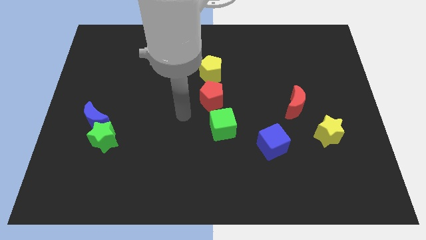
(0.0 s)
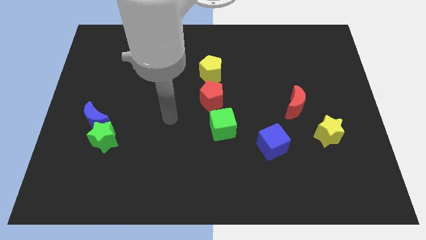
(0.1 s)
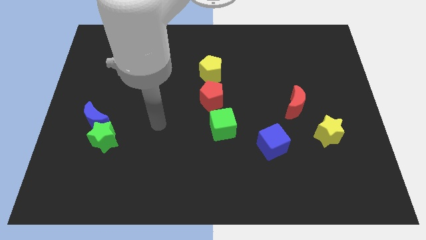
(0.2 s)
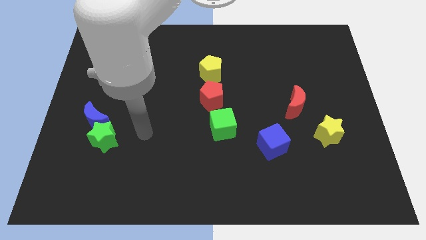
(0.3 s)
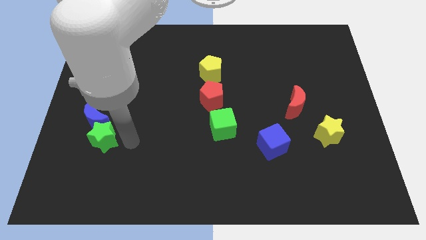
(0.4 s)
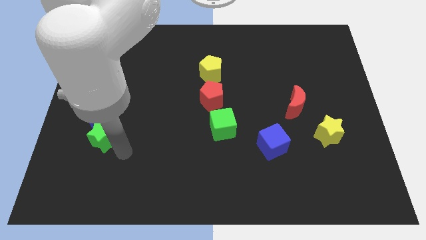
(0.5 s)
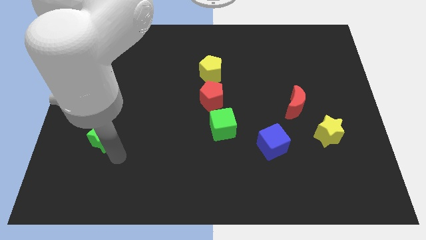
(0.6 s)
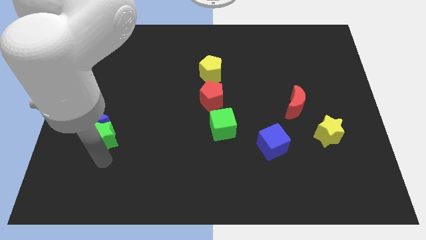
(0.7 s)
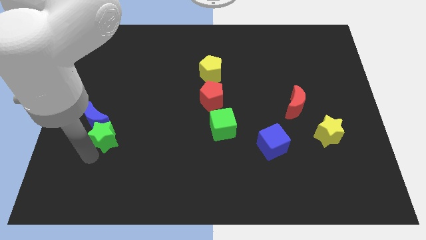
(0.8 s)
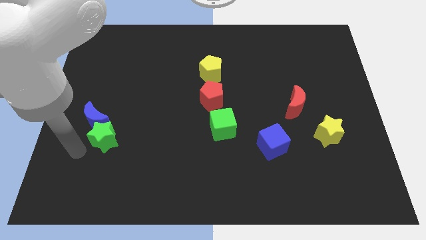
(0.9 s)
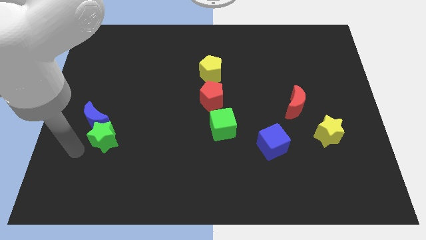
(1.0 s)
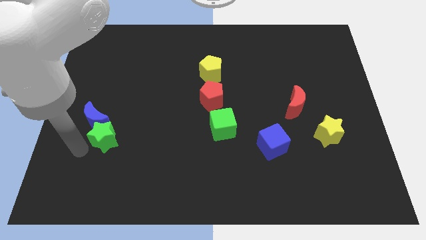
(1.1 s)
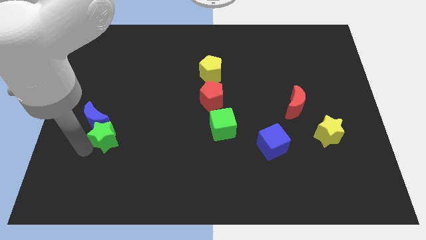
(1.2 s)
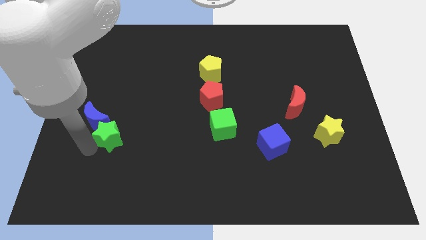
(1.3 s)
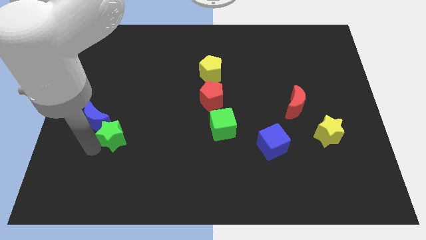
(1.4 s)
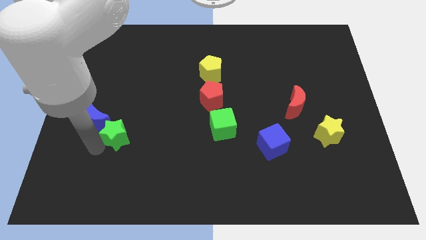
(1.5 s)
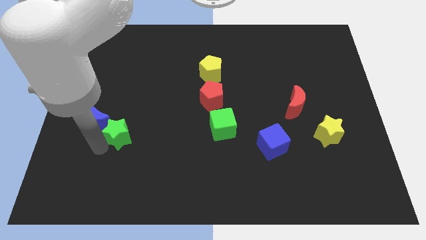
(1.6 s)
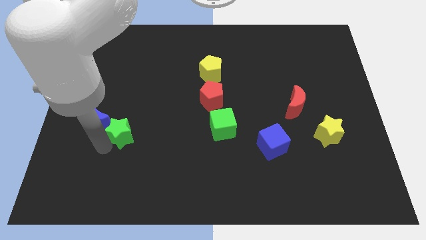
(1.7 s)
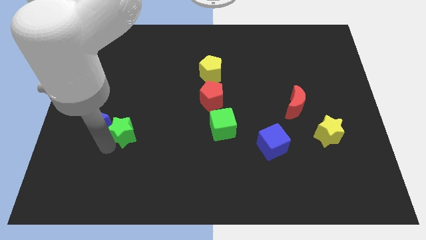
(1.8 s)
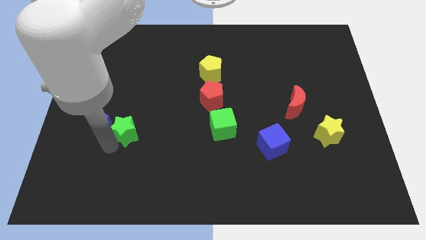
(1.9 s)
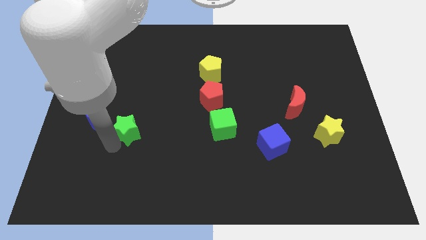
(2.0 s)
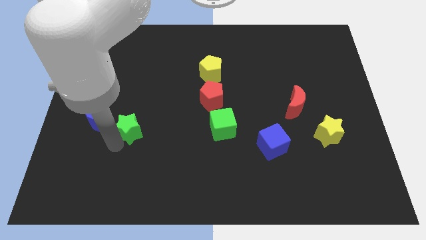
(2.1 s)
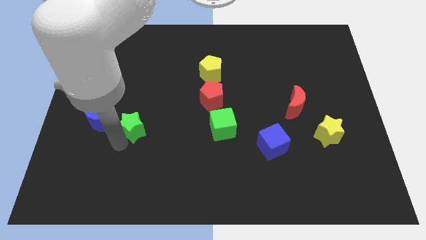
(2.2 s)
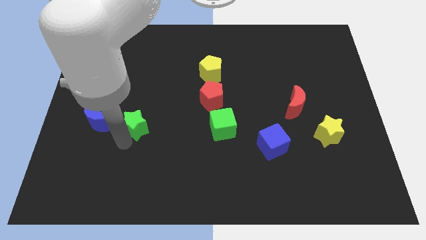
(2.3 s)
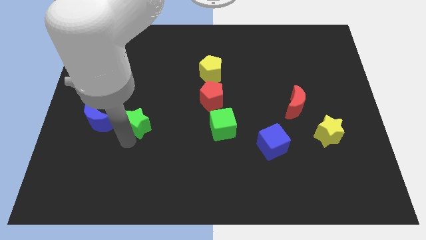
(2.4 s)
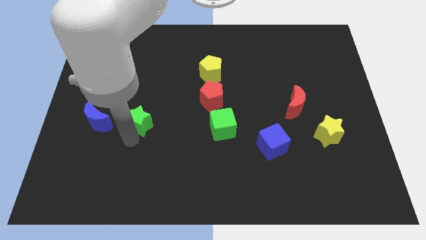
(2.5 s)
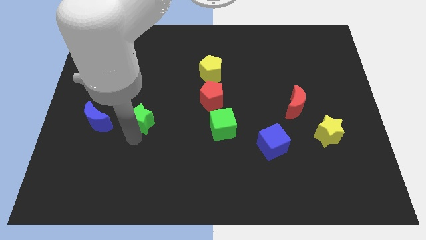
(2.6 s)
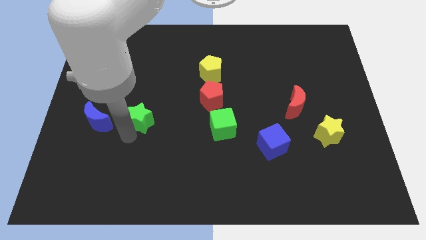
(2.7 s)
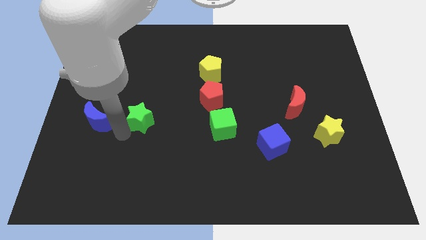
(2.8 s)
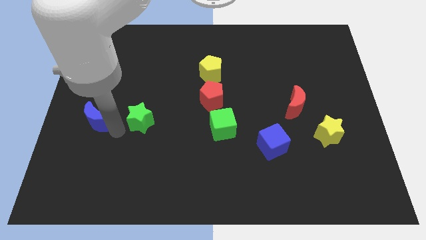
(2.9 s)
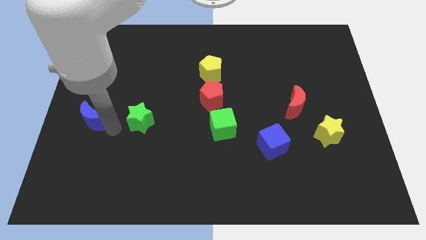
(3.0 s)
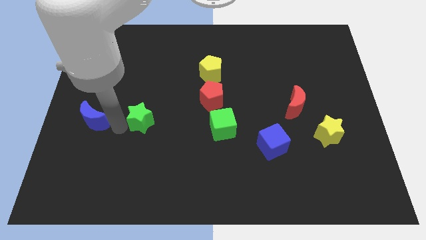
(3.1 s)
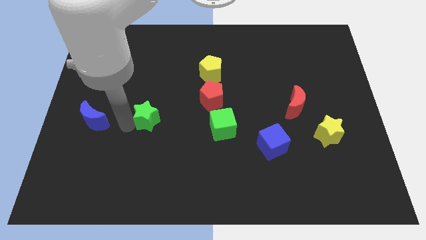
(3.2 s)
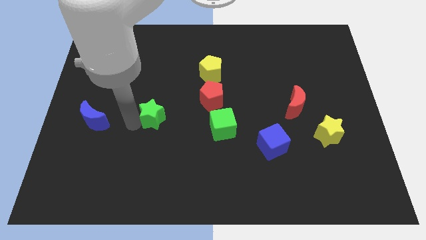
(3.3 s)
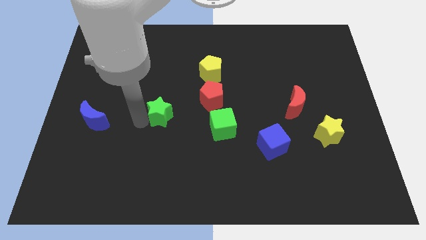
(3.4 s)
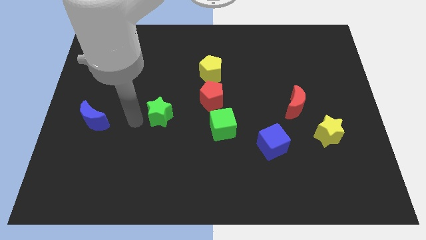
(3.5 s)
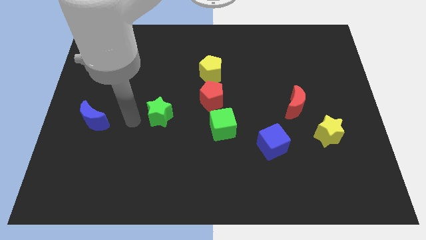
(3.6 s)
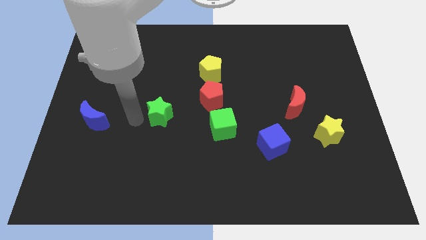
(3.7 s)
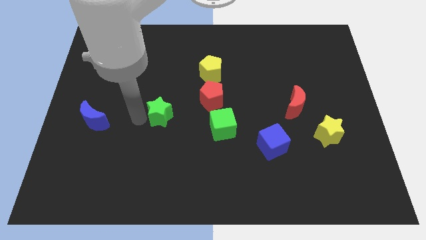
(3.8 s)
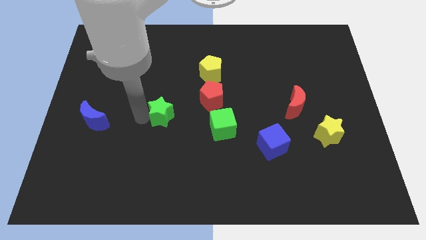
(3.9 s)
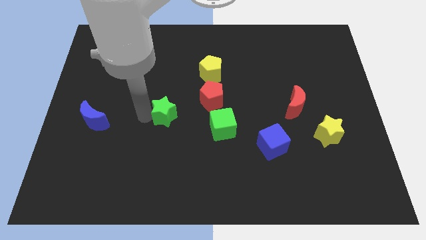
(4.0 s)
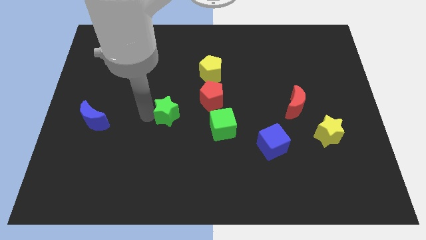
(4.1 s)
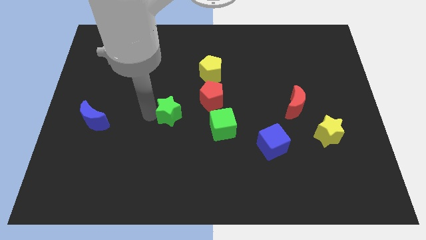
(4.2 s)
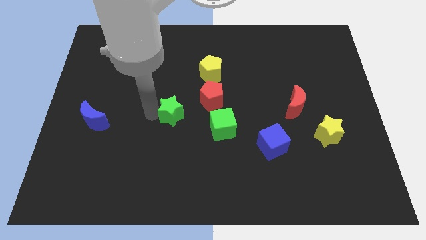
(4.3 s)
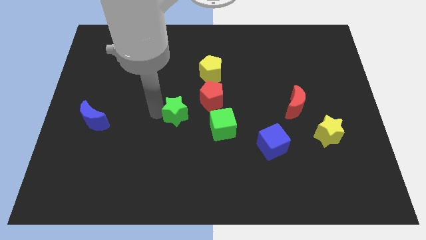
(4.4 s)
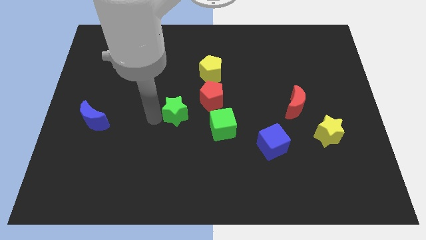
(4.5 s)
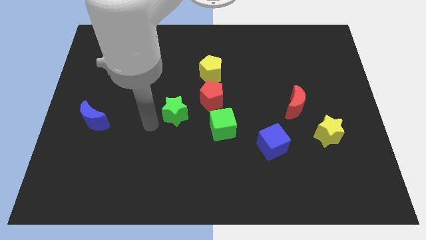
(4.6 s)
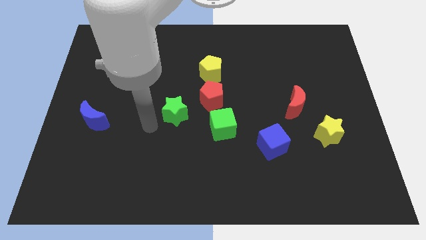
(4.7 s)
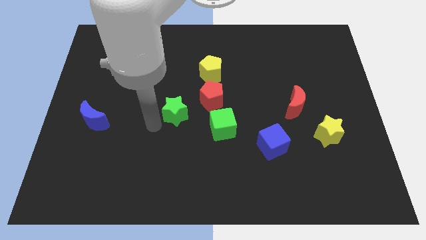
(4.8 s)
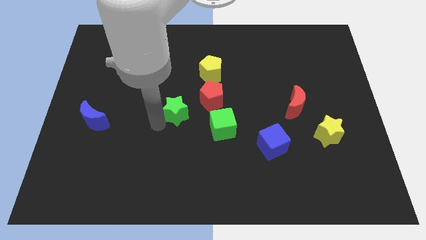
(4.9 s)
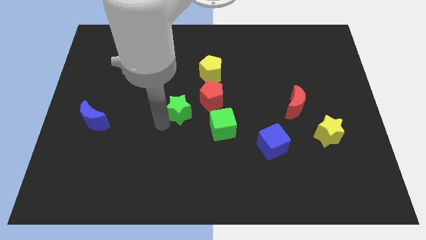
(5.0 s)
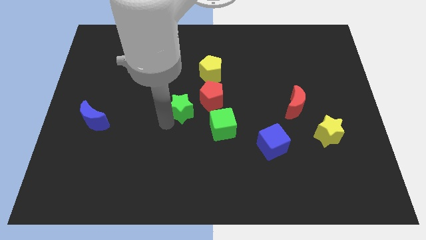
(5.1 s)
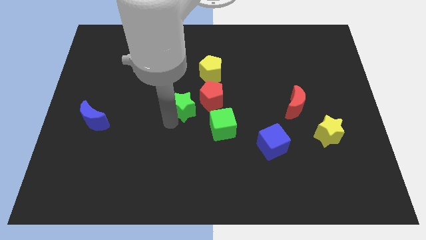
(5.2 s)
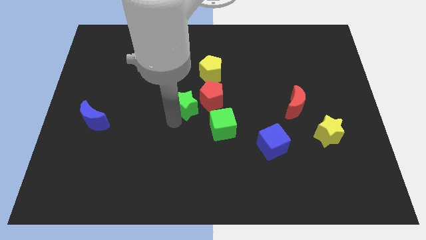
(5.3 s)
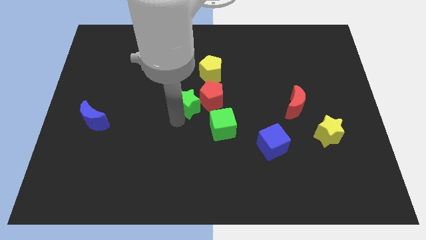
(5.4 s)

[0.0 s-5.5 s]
push the green star close to the red pentagon

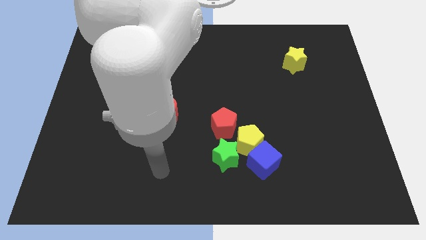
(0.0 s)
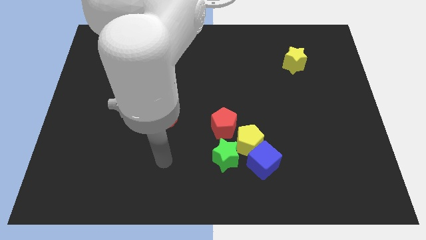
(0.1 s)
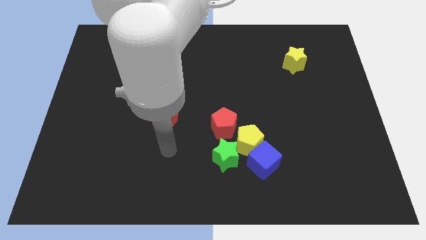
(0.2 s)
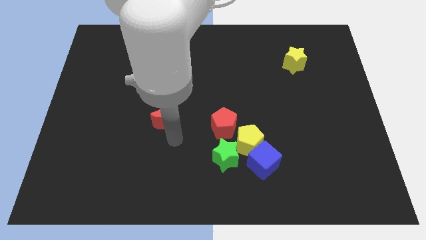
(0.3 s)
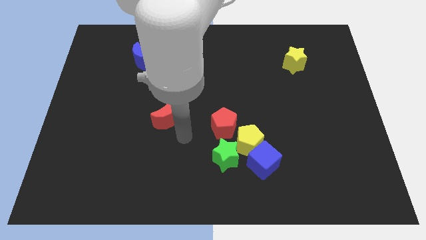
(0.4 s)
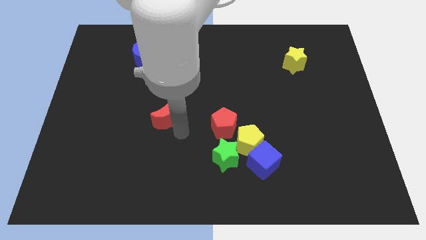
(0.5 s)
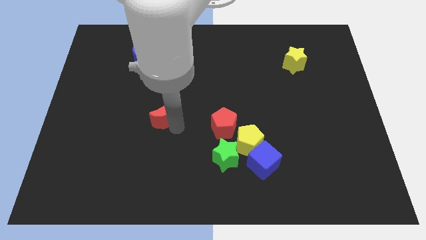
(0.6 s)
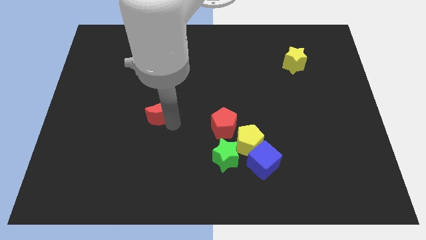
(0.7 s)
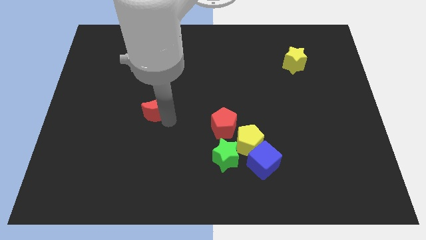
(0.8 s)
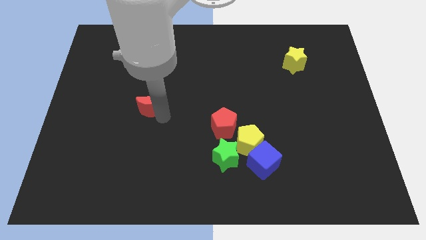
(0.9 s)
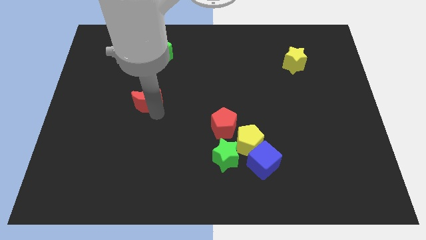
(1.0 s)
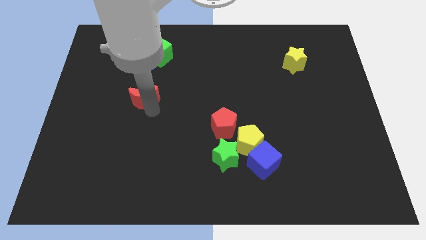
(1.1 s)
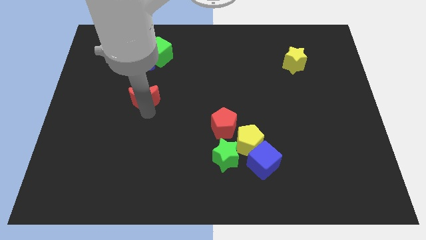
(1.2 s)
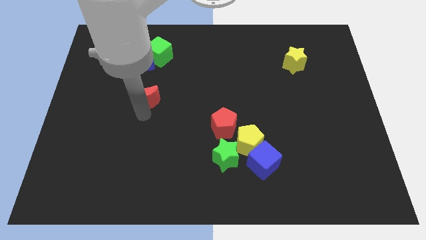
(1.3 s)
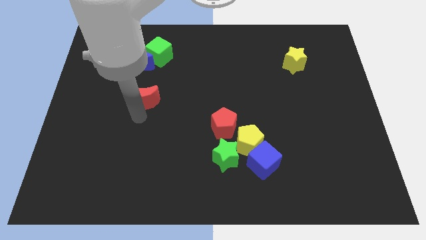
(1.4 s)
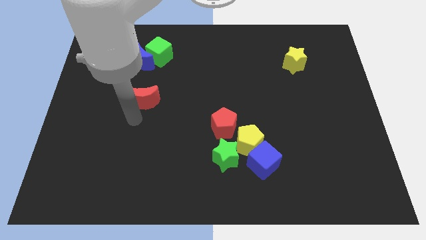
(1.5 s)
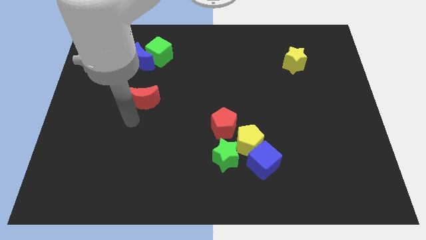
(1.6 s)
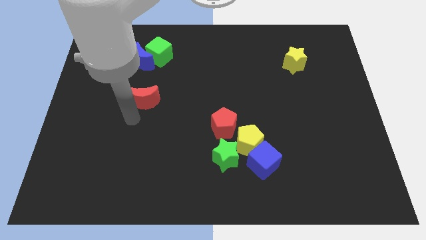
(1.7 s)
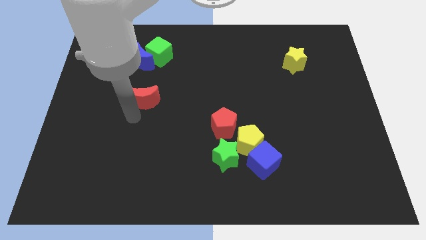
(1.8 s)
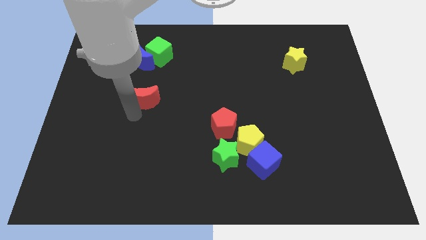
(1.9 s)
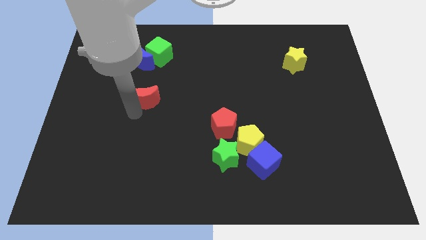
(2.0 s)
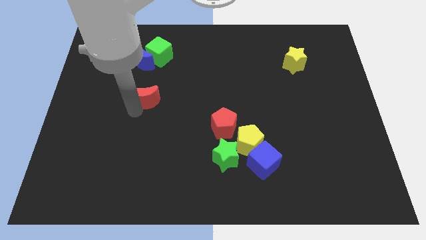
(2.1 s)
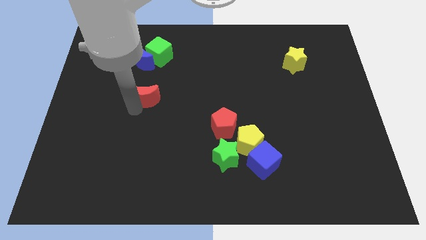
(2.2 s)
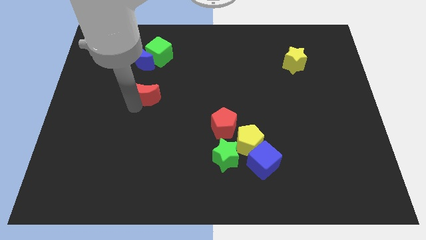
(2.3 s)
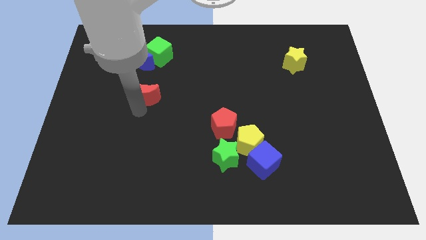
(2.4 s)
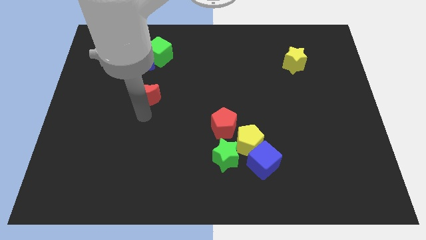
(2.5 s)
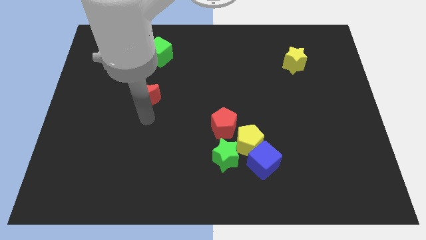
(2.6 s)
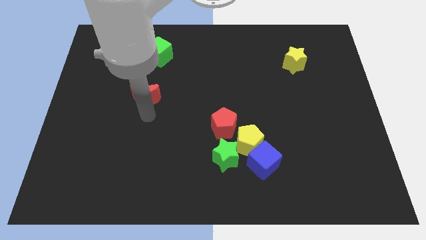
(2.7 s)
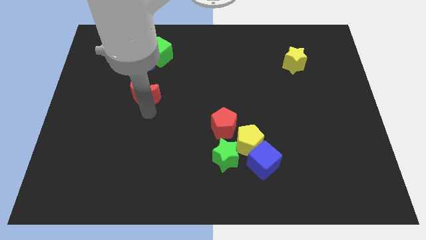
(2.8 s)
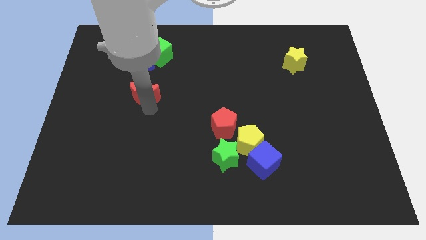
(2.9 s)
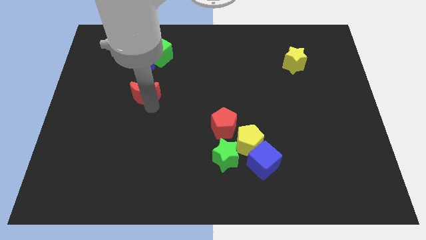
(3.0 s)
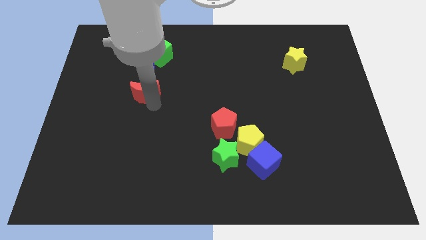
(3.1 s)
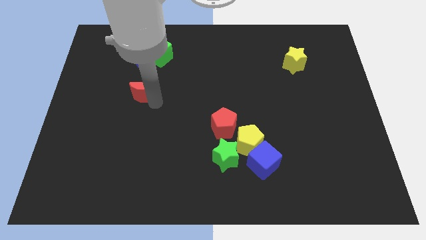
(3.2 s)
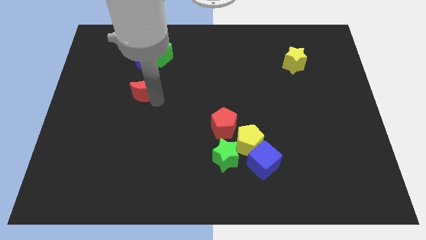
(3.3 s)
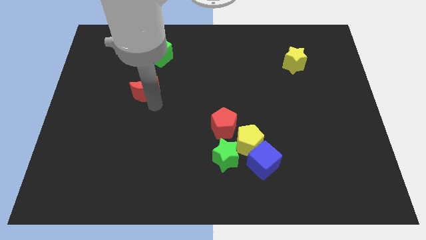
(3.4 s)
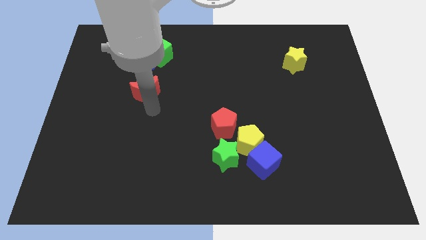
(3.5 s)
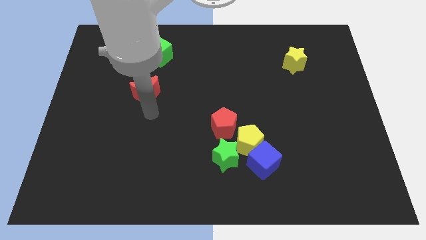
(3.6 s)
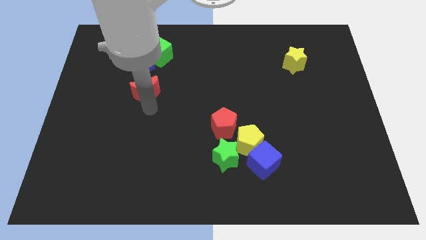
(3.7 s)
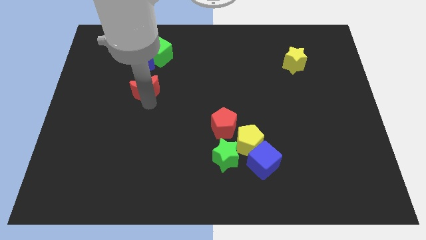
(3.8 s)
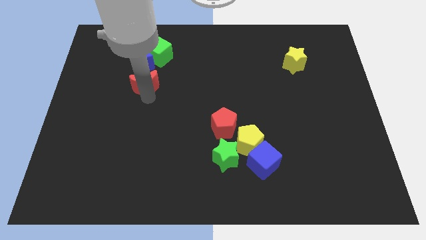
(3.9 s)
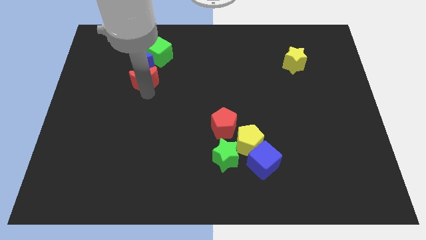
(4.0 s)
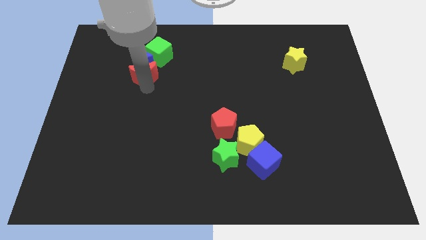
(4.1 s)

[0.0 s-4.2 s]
slide the red moon close to the blue moon
